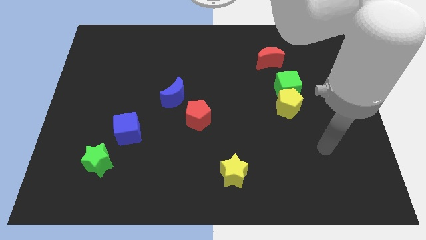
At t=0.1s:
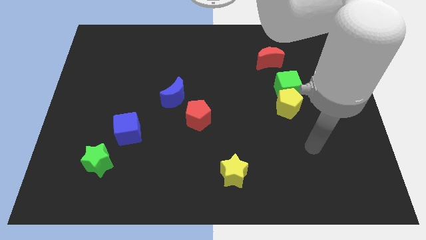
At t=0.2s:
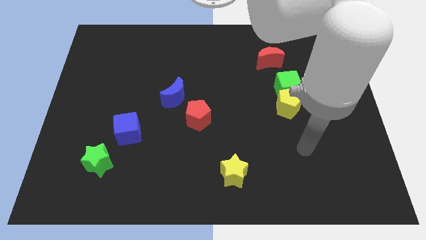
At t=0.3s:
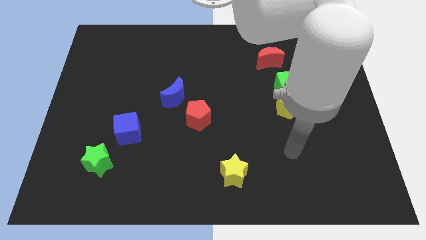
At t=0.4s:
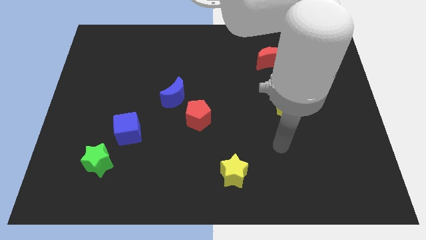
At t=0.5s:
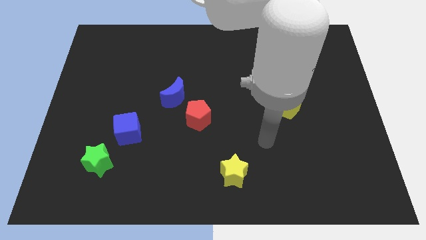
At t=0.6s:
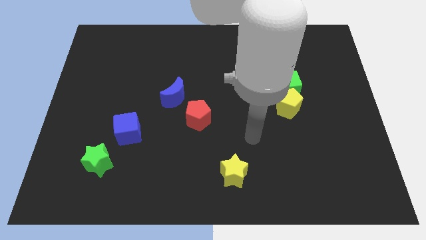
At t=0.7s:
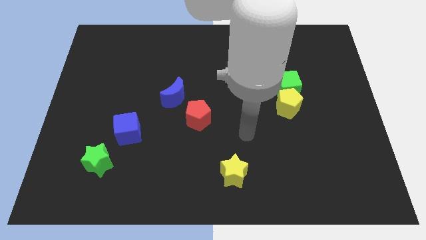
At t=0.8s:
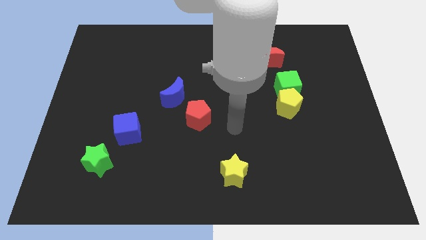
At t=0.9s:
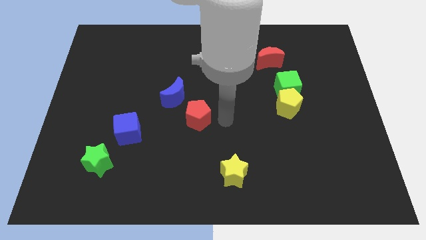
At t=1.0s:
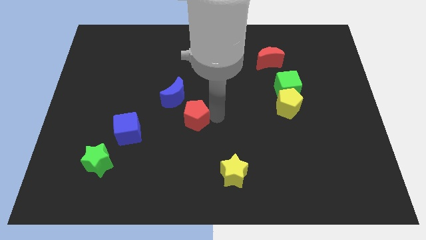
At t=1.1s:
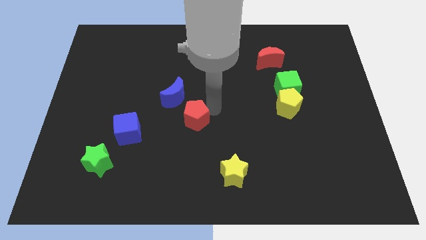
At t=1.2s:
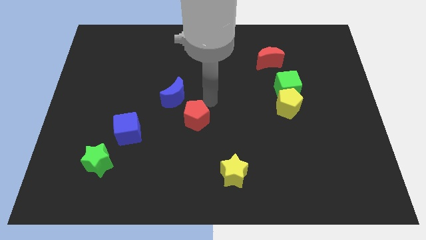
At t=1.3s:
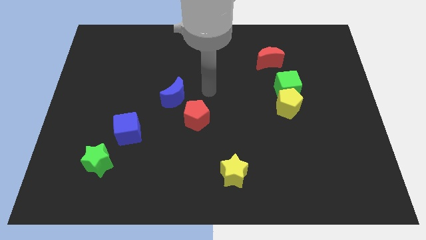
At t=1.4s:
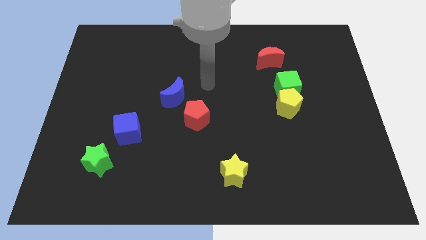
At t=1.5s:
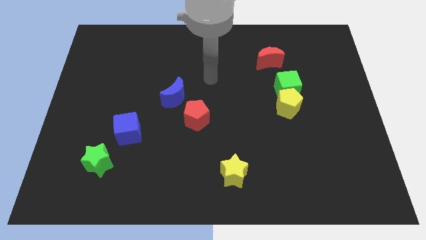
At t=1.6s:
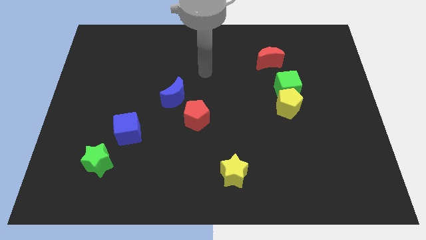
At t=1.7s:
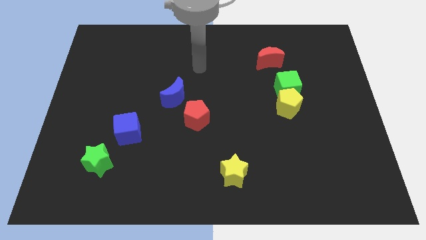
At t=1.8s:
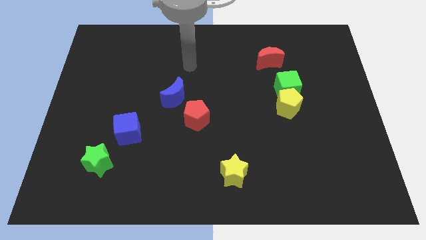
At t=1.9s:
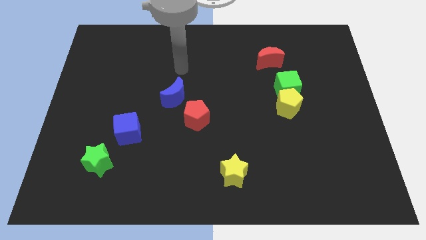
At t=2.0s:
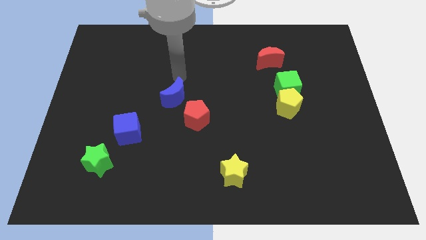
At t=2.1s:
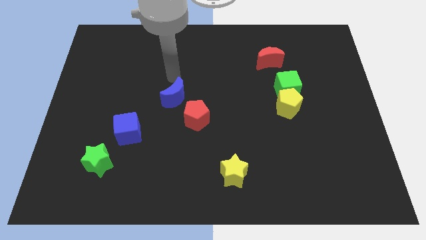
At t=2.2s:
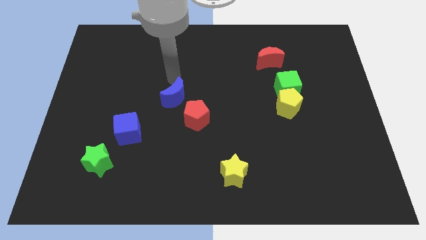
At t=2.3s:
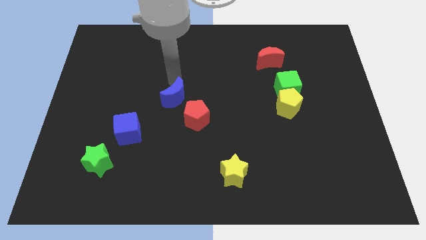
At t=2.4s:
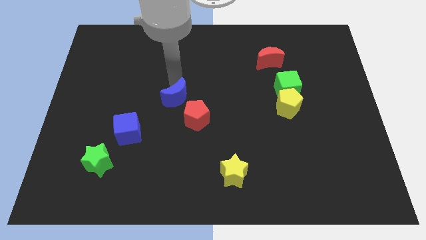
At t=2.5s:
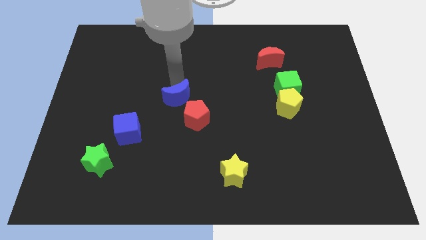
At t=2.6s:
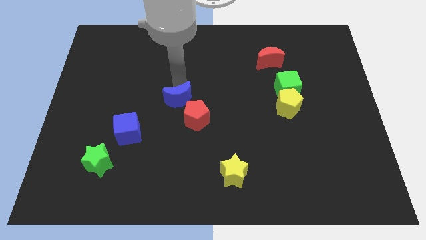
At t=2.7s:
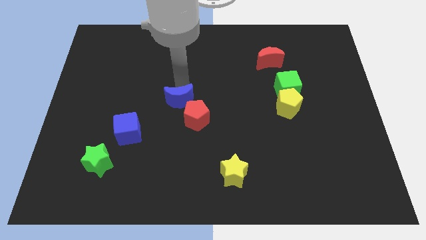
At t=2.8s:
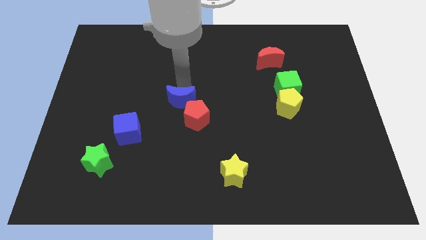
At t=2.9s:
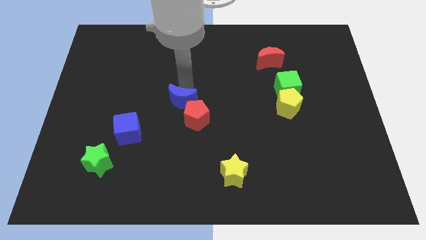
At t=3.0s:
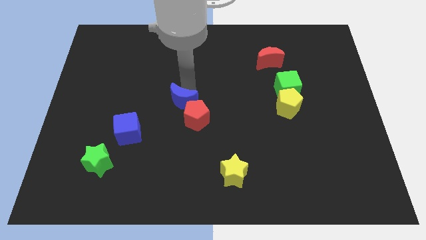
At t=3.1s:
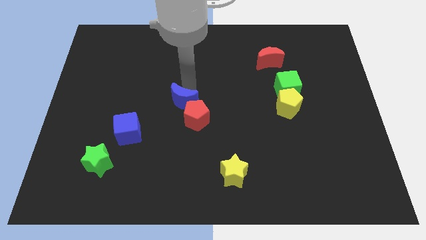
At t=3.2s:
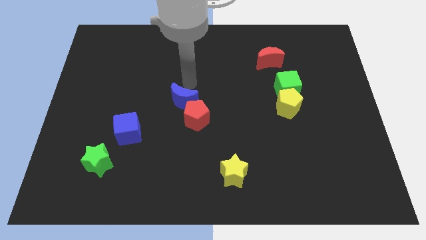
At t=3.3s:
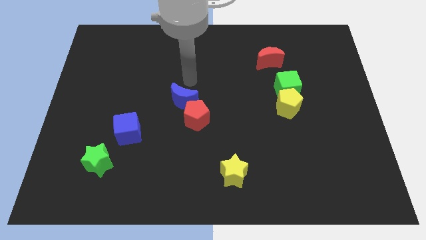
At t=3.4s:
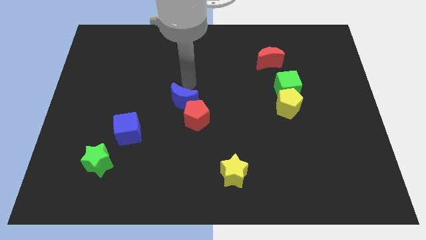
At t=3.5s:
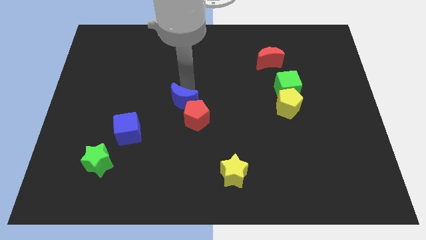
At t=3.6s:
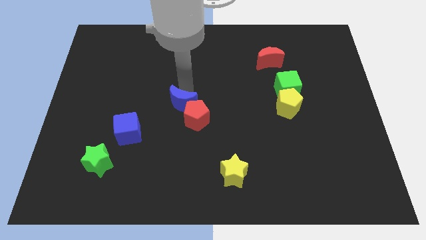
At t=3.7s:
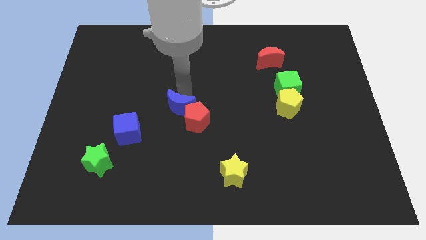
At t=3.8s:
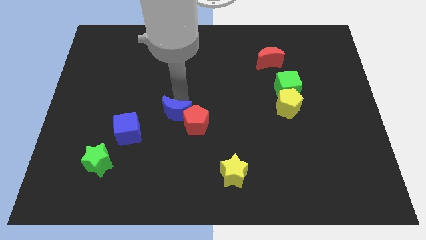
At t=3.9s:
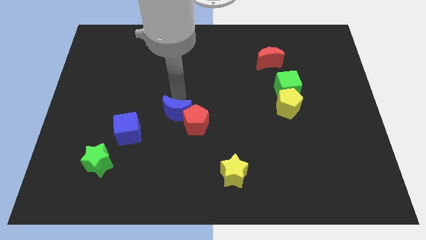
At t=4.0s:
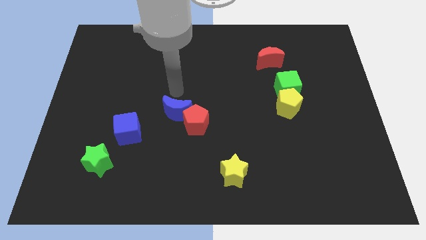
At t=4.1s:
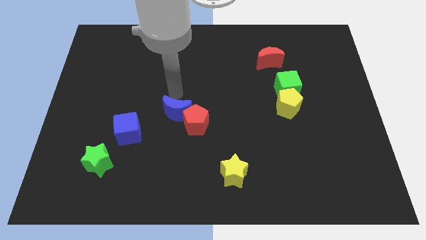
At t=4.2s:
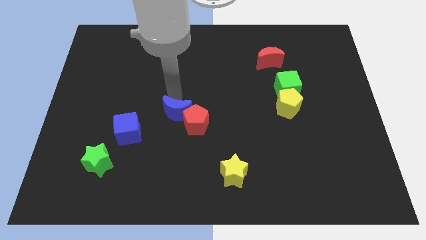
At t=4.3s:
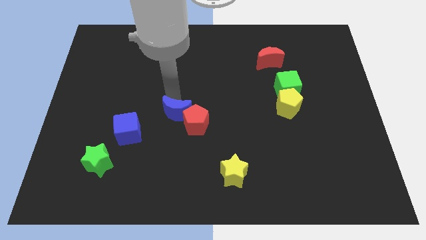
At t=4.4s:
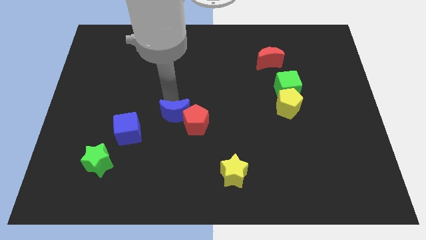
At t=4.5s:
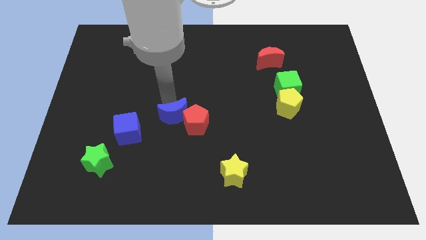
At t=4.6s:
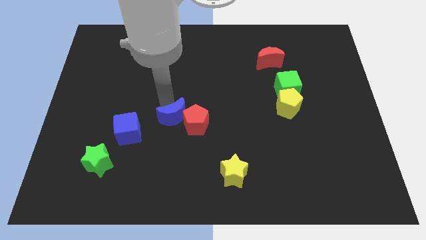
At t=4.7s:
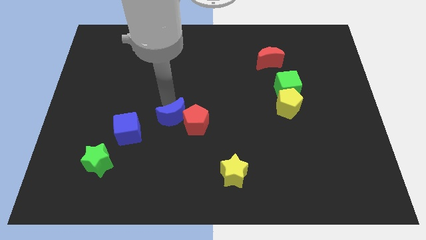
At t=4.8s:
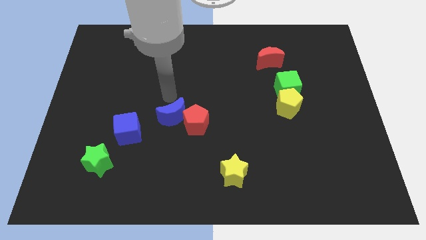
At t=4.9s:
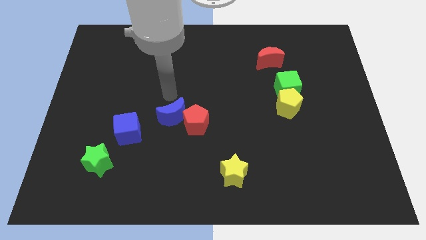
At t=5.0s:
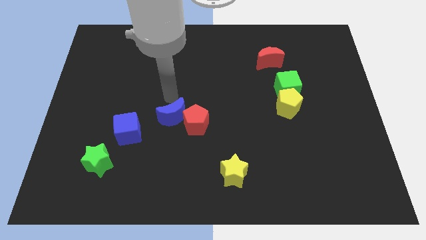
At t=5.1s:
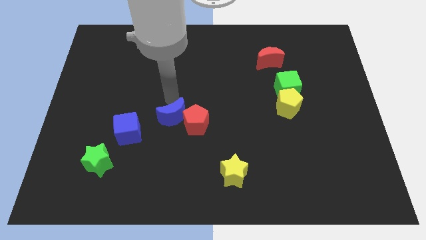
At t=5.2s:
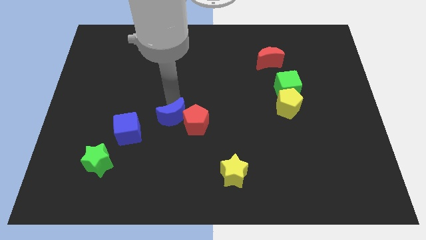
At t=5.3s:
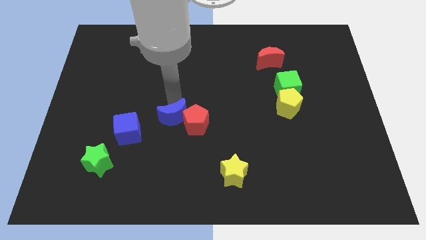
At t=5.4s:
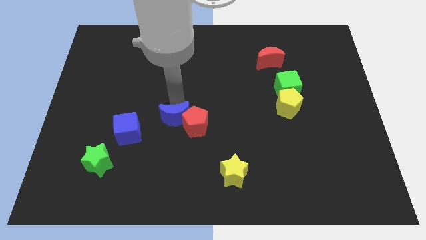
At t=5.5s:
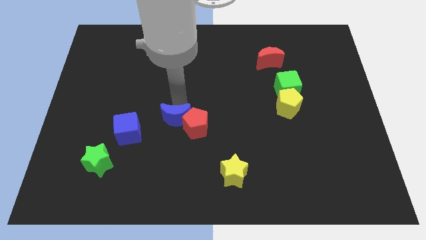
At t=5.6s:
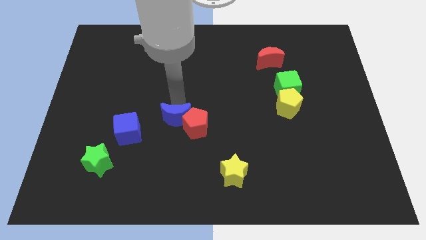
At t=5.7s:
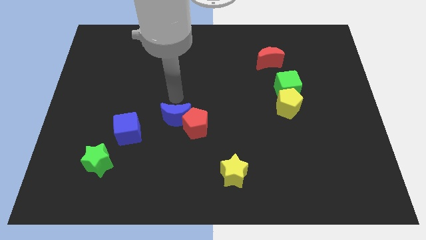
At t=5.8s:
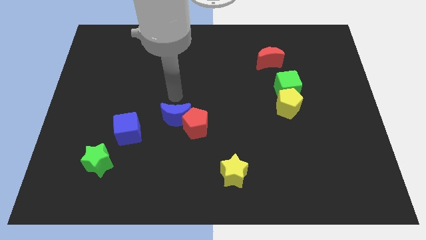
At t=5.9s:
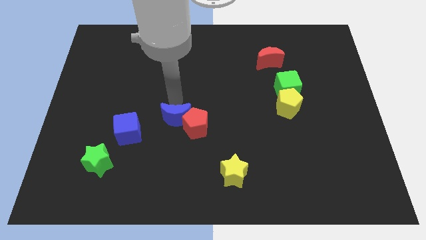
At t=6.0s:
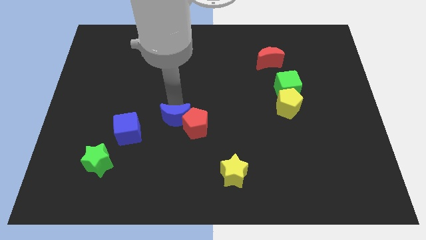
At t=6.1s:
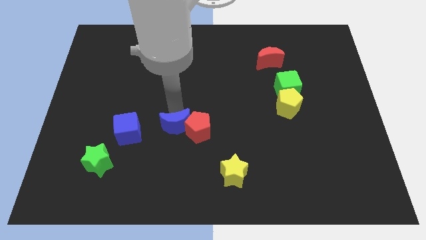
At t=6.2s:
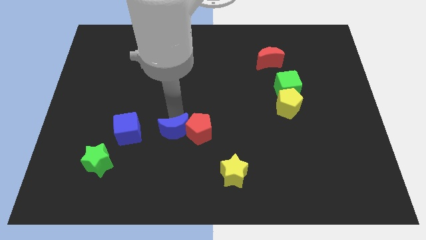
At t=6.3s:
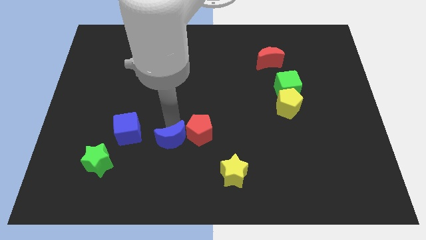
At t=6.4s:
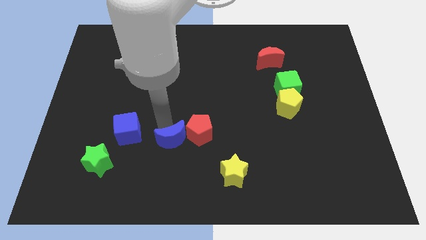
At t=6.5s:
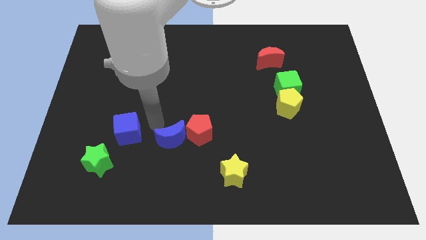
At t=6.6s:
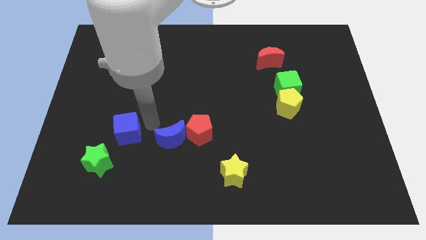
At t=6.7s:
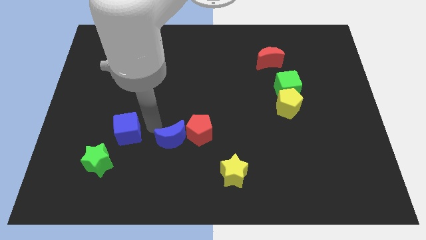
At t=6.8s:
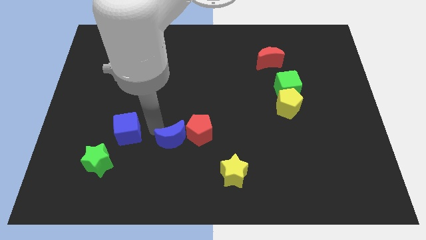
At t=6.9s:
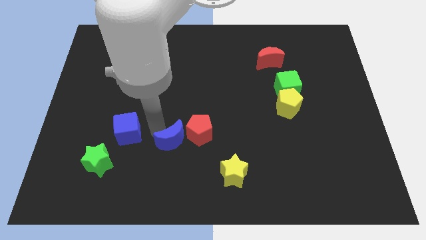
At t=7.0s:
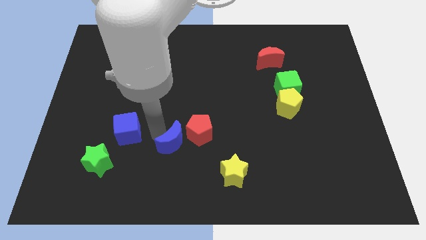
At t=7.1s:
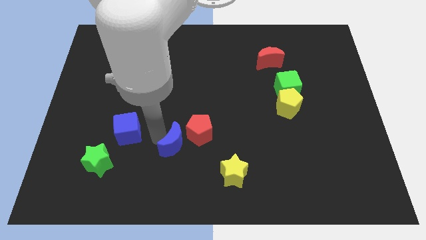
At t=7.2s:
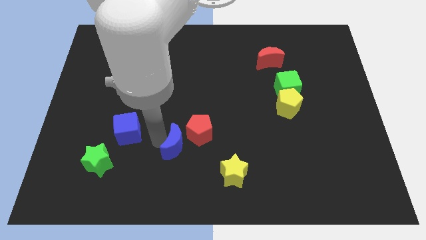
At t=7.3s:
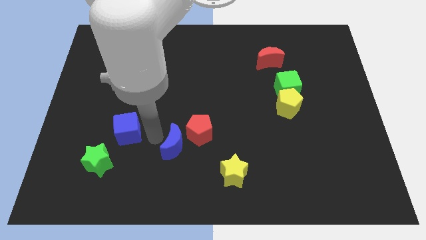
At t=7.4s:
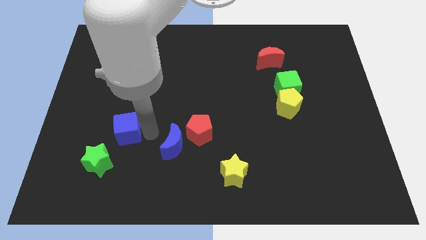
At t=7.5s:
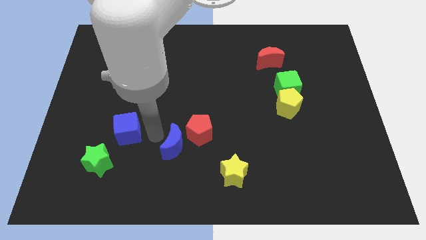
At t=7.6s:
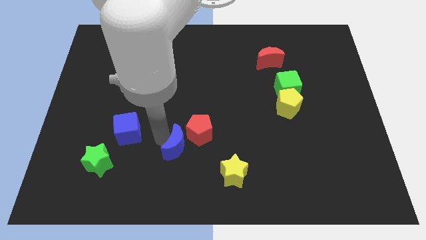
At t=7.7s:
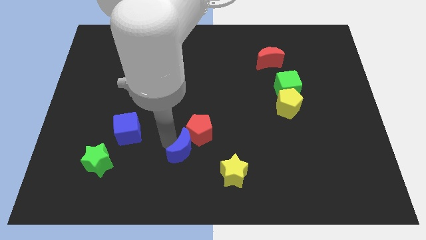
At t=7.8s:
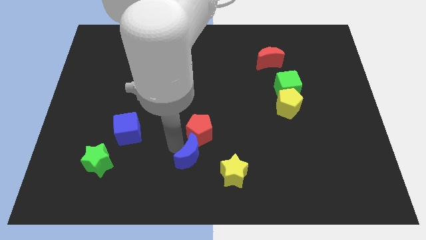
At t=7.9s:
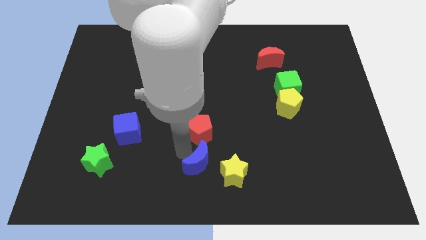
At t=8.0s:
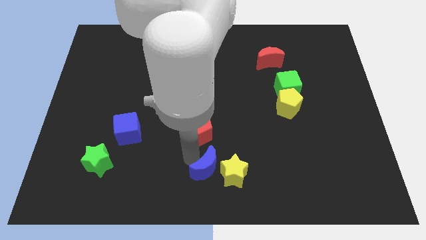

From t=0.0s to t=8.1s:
push the blue moon to the yellow star
